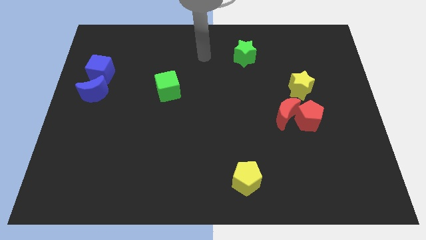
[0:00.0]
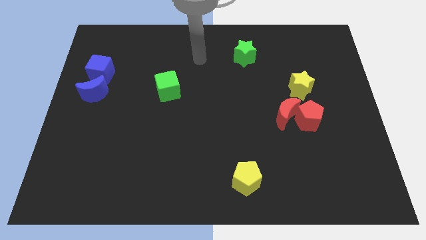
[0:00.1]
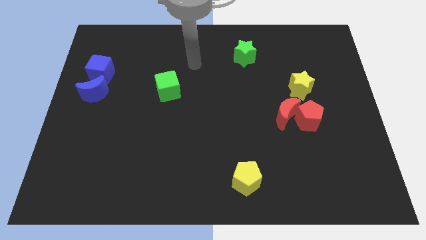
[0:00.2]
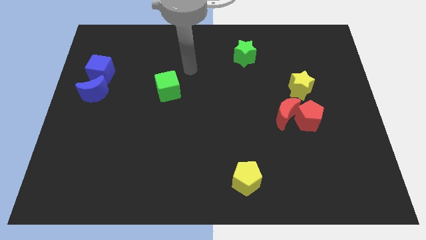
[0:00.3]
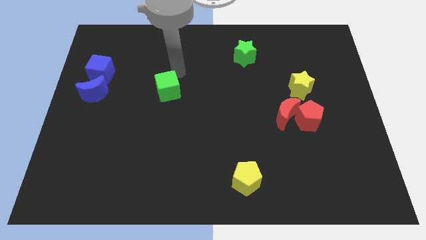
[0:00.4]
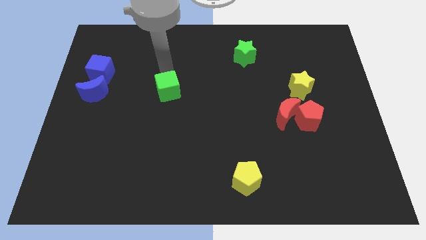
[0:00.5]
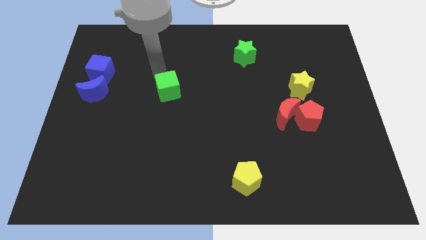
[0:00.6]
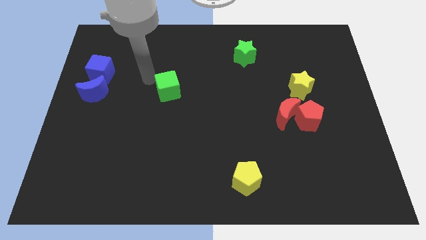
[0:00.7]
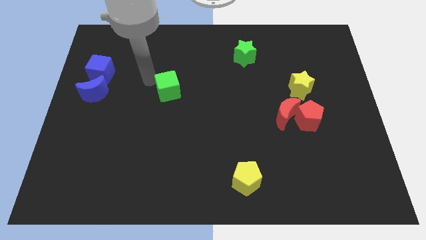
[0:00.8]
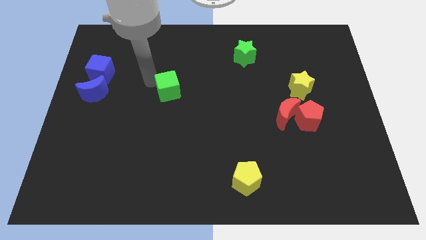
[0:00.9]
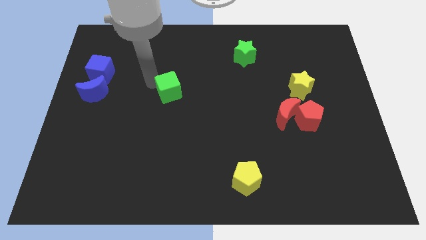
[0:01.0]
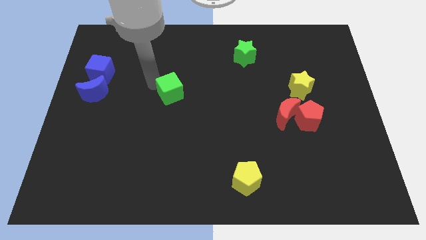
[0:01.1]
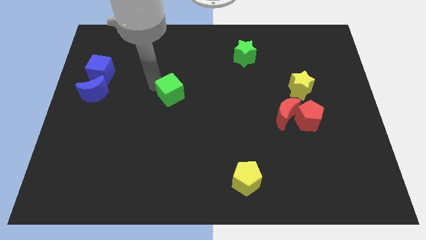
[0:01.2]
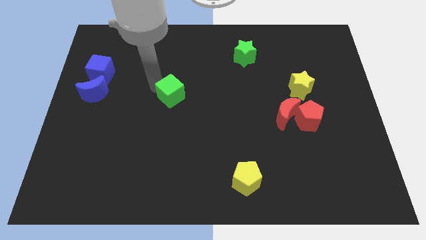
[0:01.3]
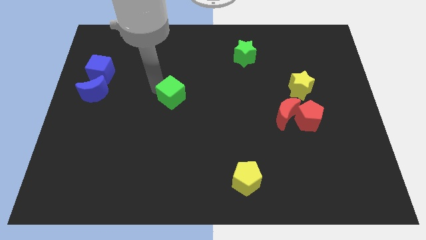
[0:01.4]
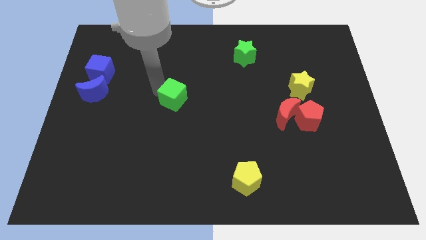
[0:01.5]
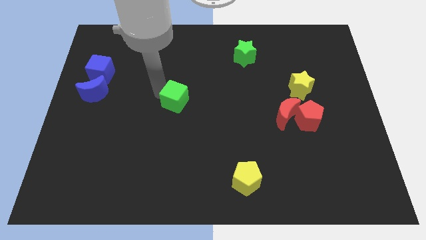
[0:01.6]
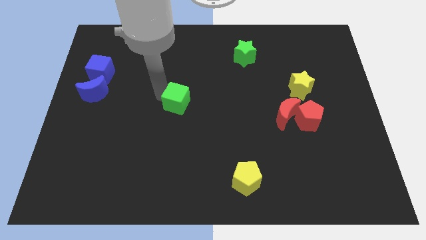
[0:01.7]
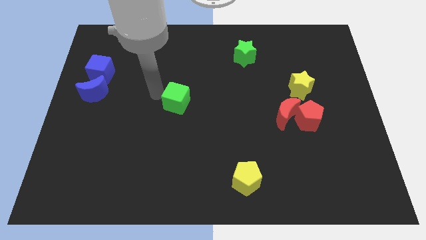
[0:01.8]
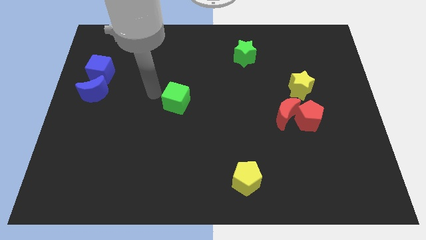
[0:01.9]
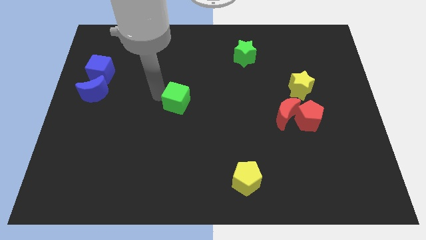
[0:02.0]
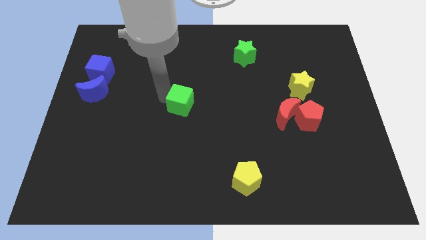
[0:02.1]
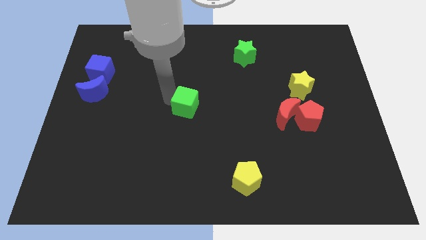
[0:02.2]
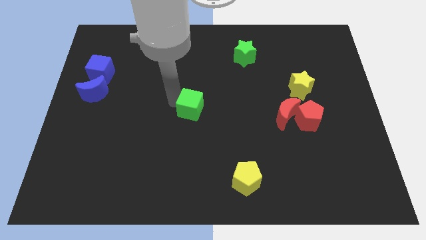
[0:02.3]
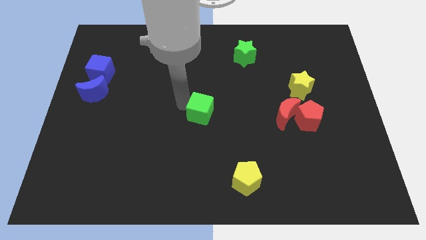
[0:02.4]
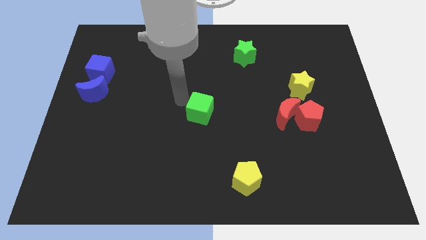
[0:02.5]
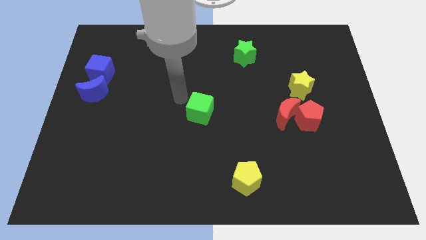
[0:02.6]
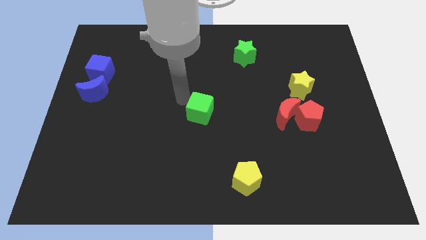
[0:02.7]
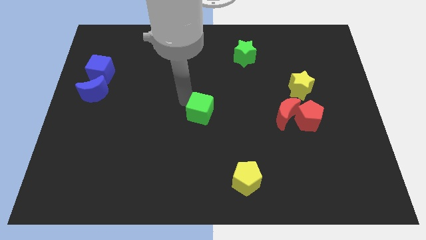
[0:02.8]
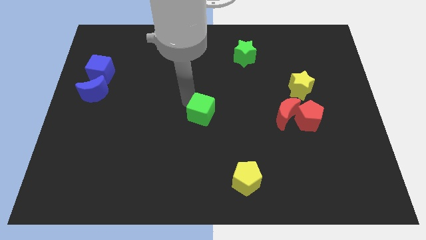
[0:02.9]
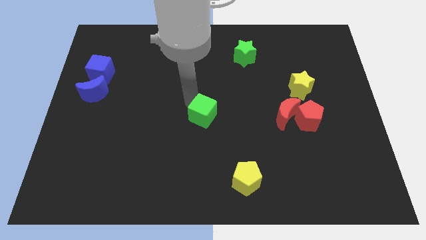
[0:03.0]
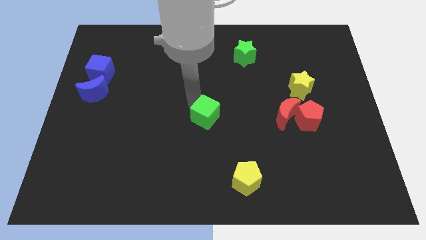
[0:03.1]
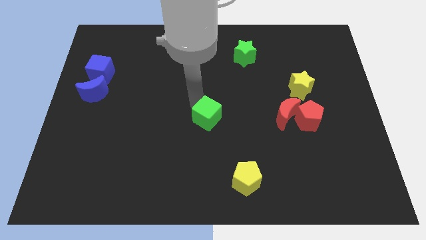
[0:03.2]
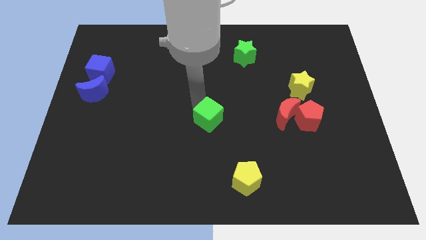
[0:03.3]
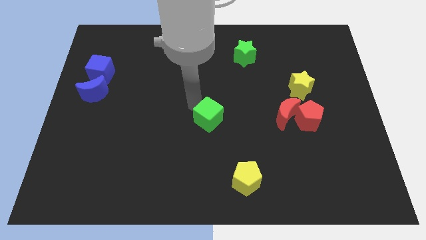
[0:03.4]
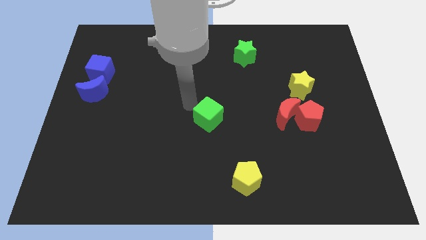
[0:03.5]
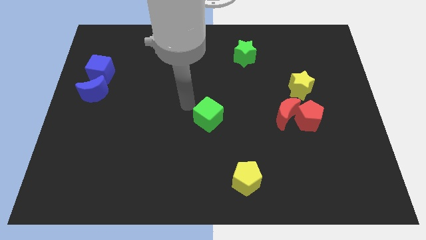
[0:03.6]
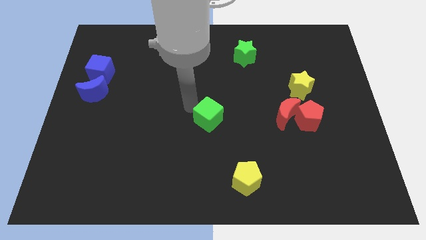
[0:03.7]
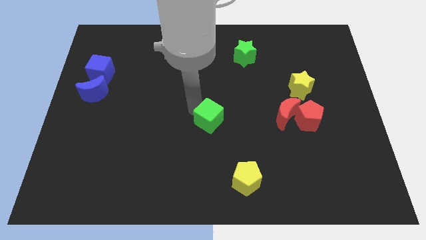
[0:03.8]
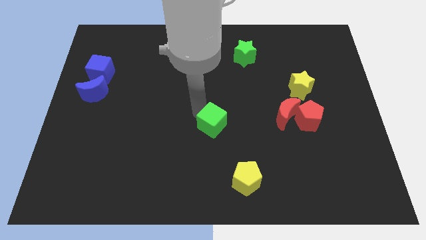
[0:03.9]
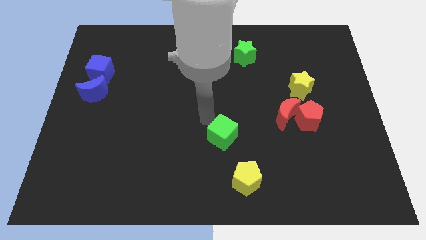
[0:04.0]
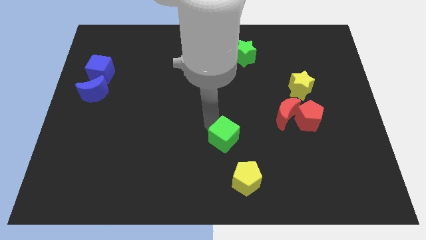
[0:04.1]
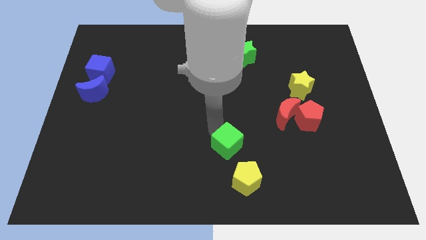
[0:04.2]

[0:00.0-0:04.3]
move the green cube down and right diagonally

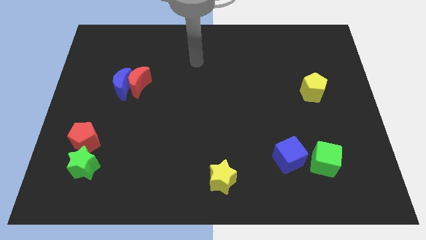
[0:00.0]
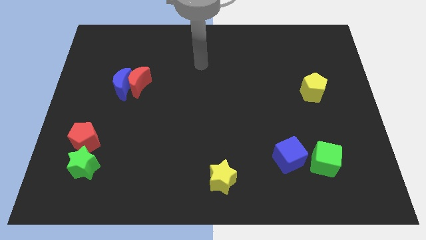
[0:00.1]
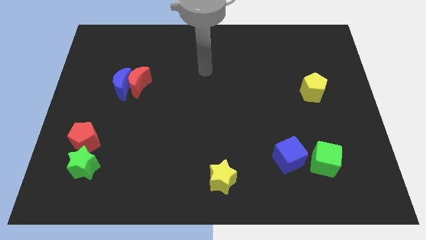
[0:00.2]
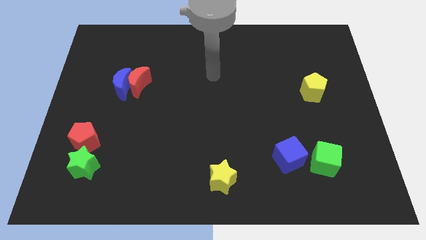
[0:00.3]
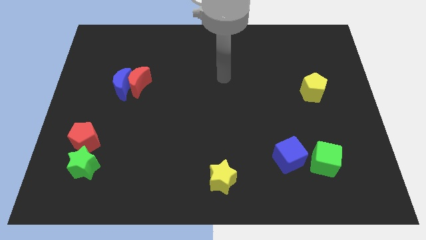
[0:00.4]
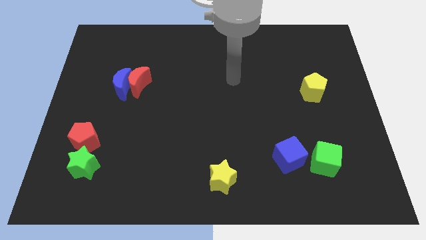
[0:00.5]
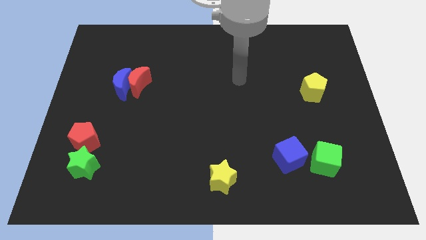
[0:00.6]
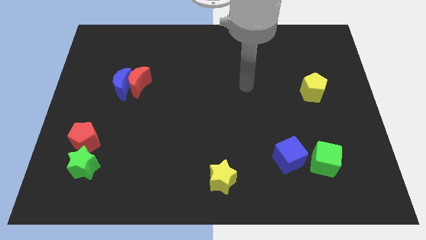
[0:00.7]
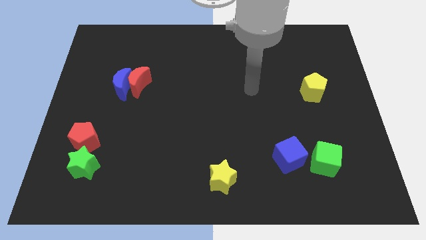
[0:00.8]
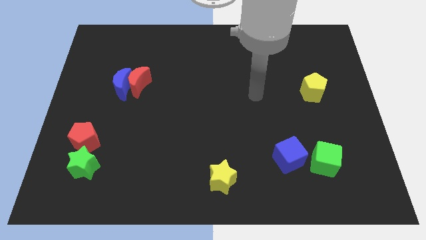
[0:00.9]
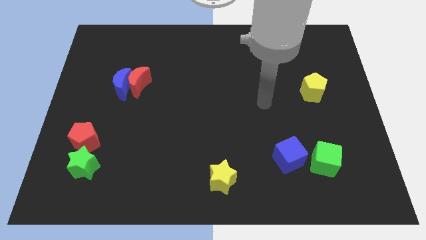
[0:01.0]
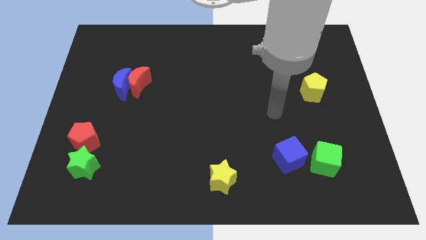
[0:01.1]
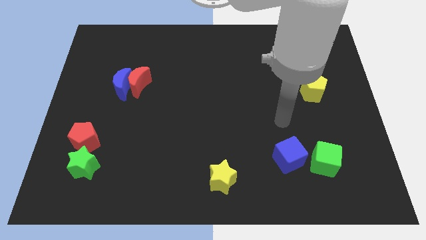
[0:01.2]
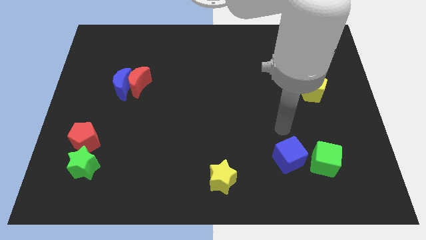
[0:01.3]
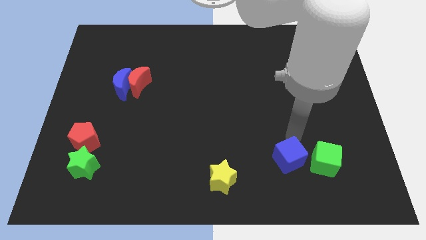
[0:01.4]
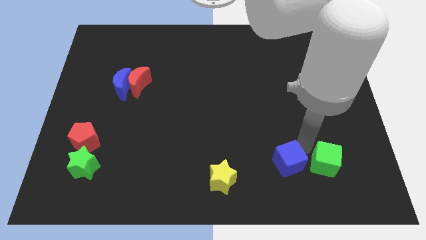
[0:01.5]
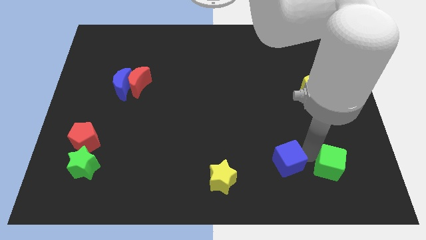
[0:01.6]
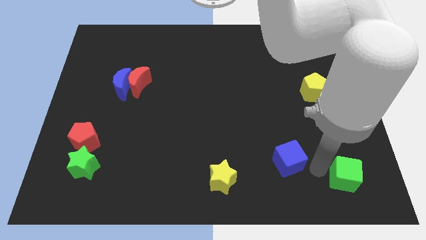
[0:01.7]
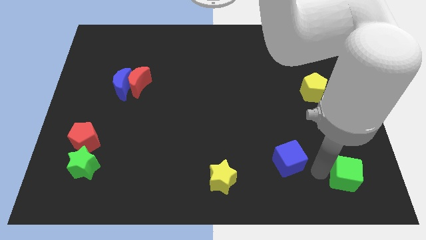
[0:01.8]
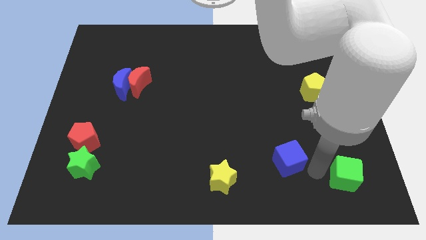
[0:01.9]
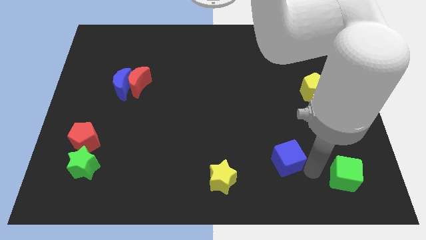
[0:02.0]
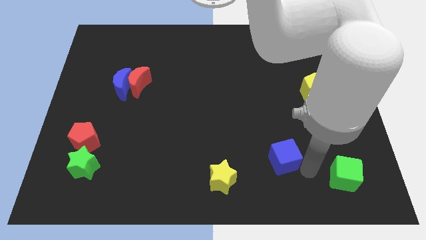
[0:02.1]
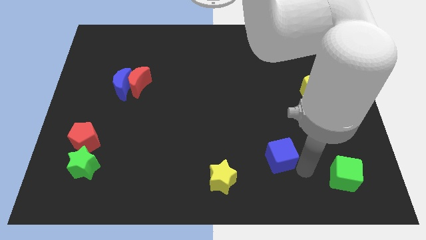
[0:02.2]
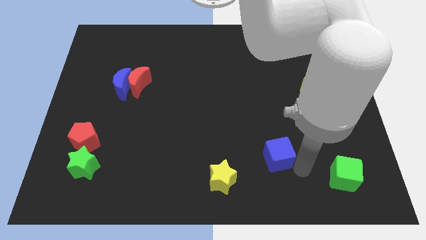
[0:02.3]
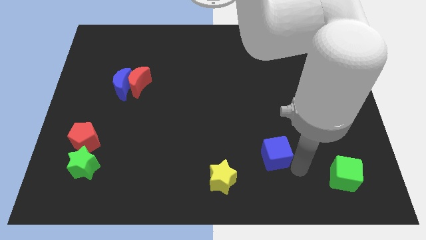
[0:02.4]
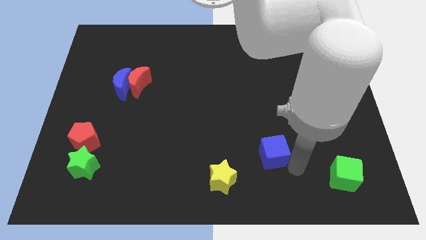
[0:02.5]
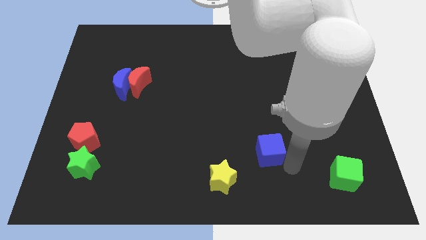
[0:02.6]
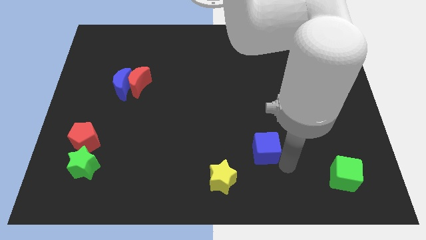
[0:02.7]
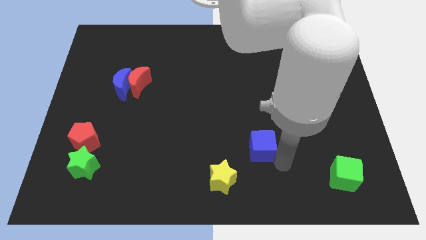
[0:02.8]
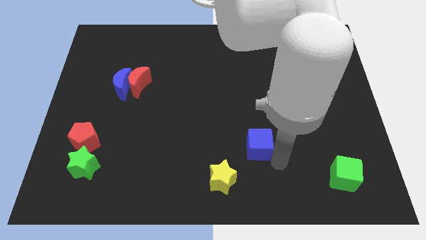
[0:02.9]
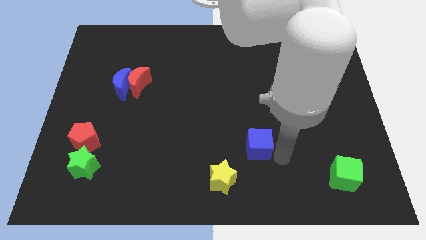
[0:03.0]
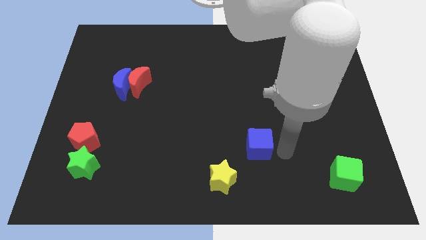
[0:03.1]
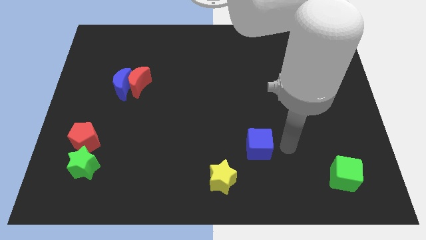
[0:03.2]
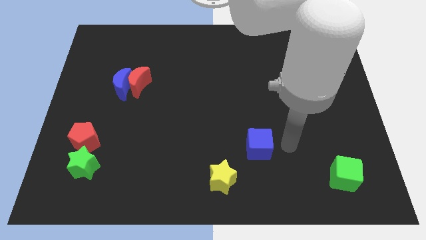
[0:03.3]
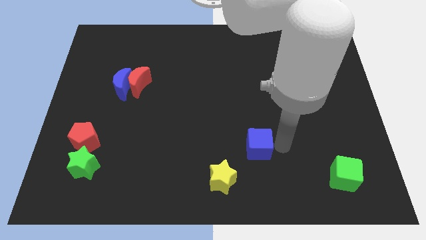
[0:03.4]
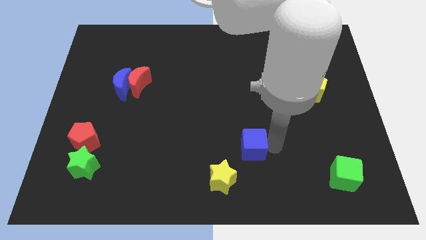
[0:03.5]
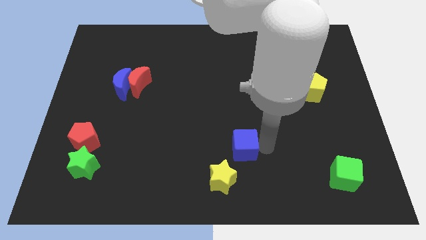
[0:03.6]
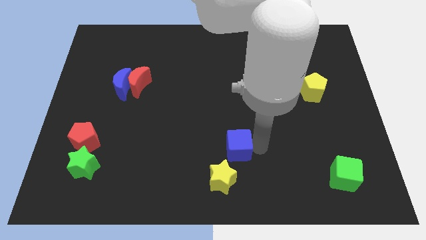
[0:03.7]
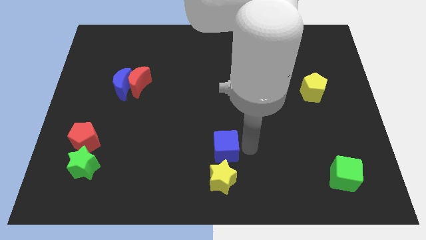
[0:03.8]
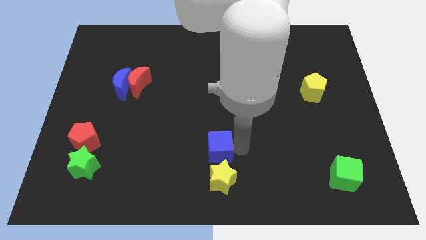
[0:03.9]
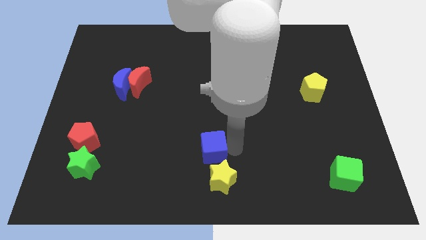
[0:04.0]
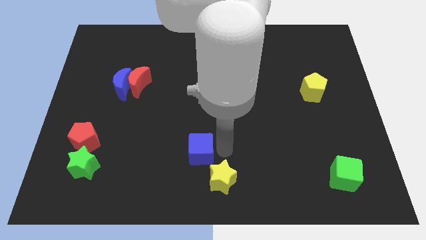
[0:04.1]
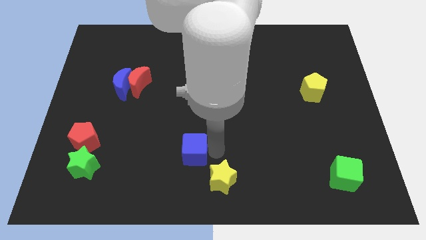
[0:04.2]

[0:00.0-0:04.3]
push the blue cube to the left
